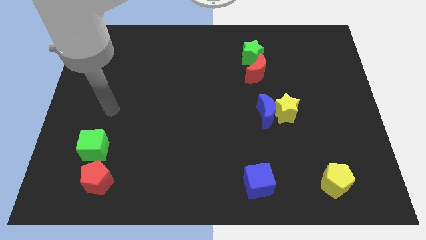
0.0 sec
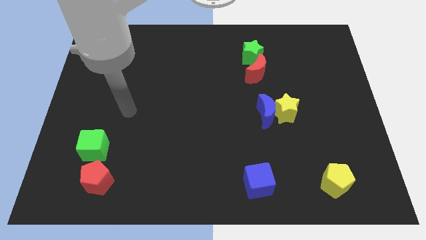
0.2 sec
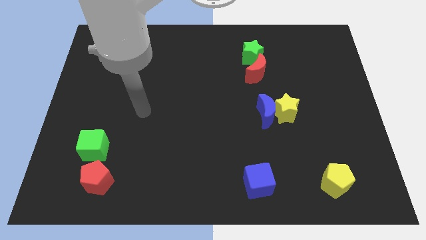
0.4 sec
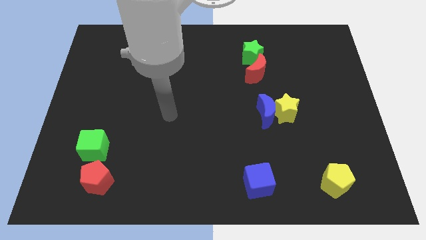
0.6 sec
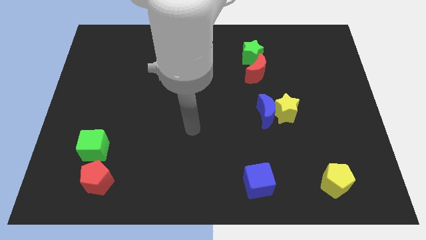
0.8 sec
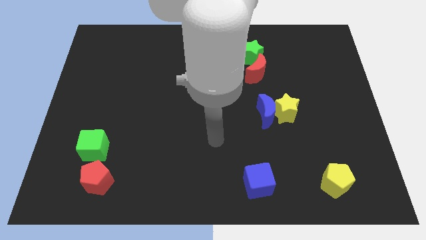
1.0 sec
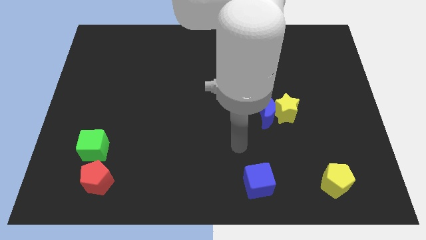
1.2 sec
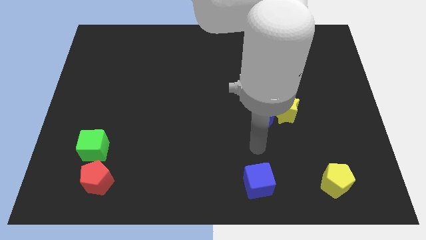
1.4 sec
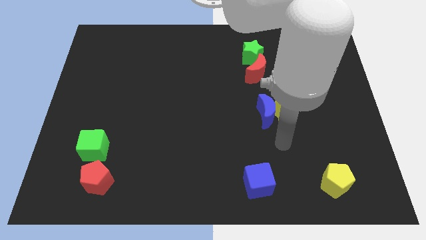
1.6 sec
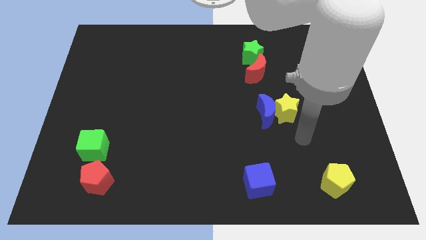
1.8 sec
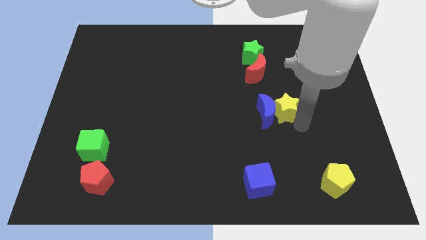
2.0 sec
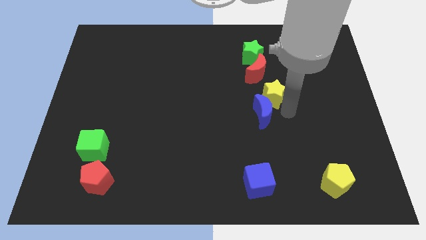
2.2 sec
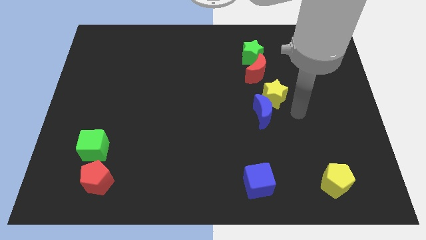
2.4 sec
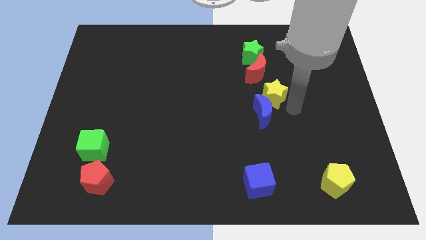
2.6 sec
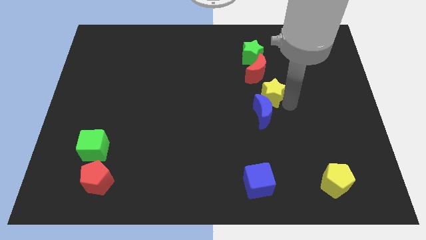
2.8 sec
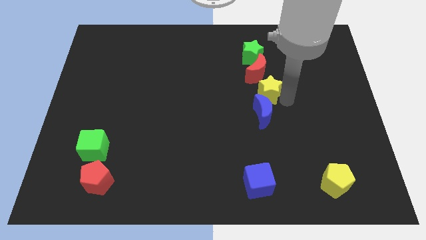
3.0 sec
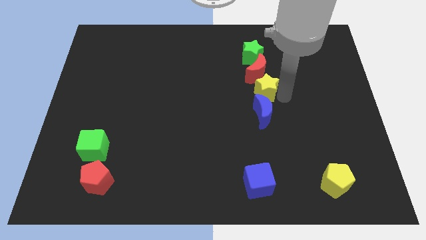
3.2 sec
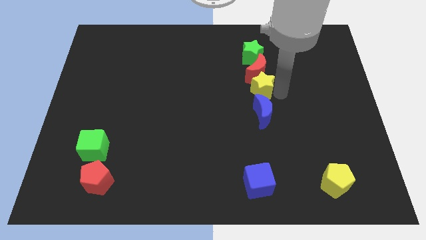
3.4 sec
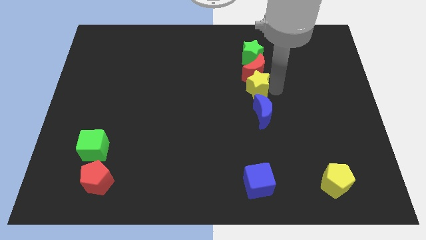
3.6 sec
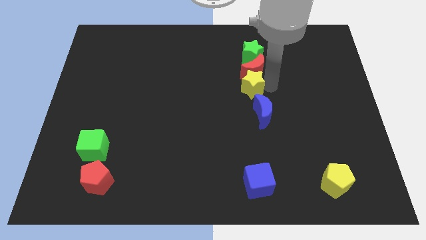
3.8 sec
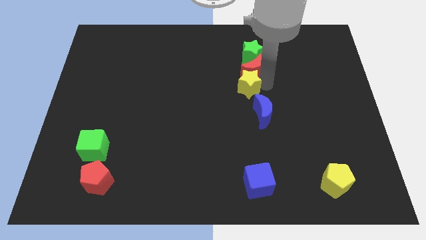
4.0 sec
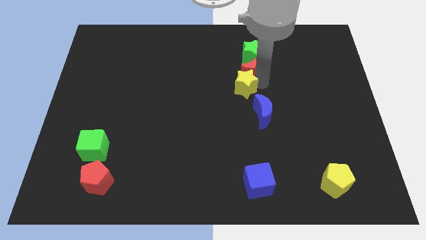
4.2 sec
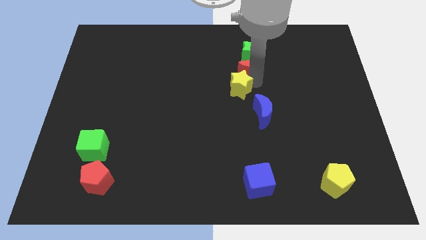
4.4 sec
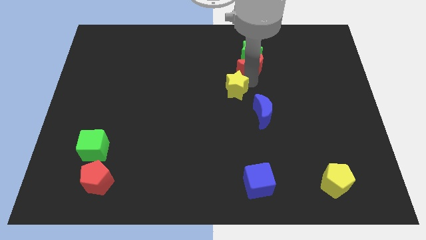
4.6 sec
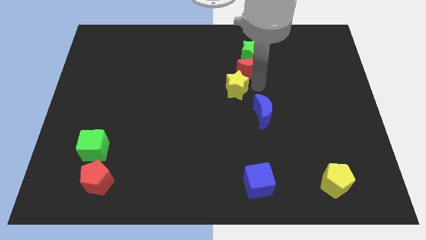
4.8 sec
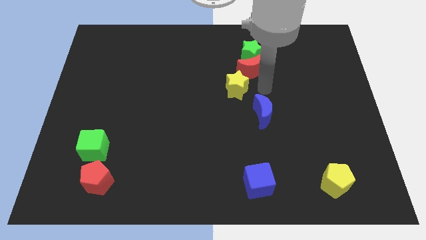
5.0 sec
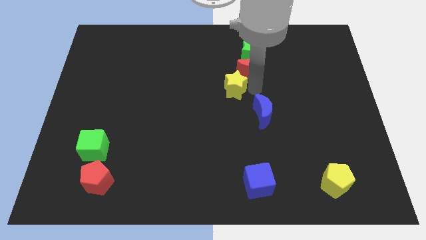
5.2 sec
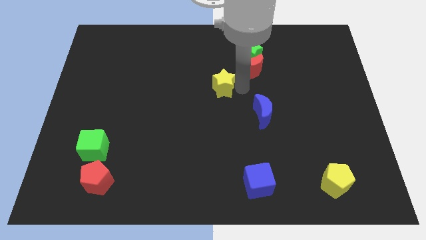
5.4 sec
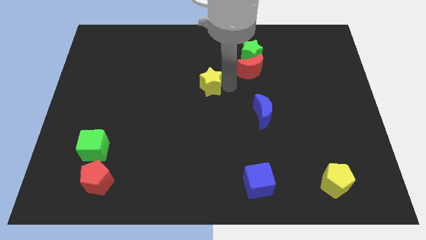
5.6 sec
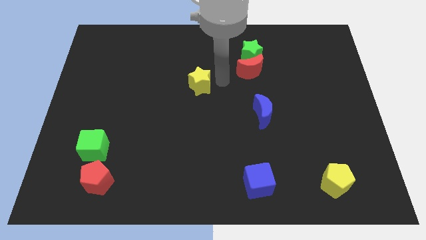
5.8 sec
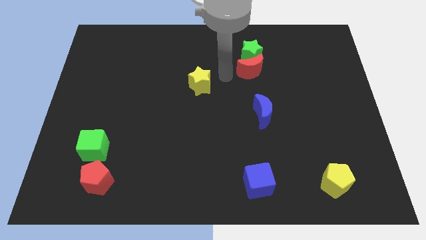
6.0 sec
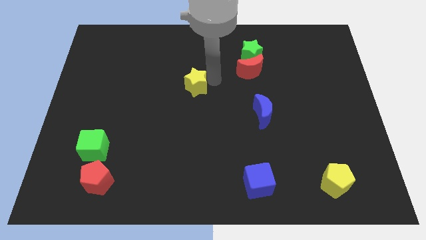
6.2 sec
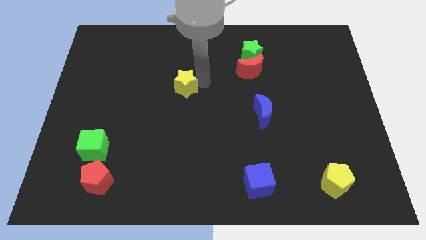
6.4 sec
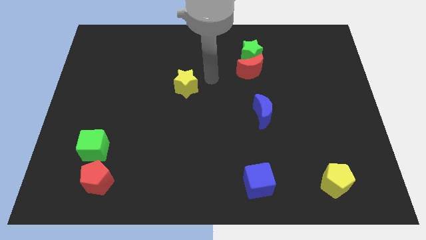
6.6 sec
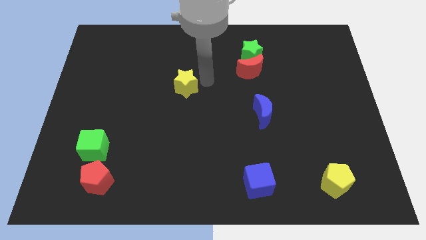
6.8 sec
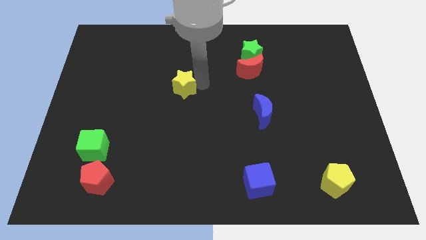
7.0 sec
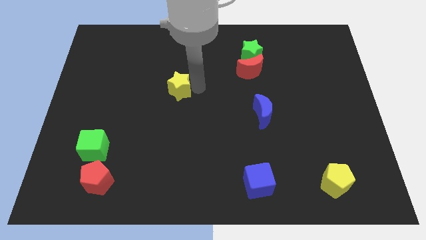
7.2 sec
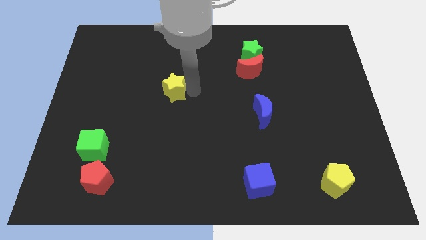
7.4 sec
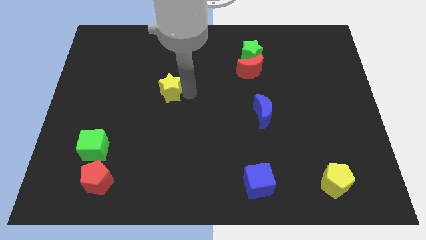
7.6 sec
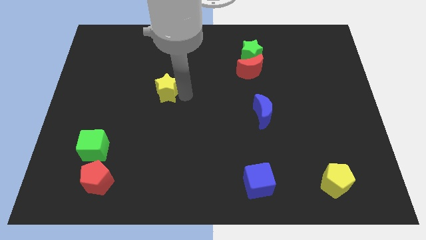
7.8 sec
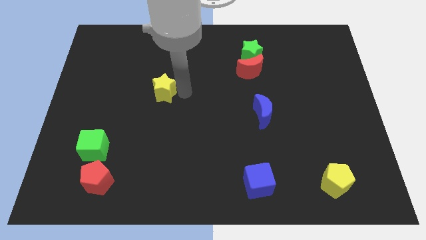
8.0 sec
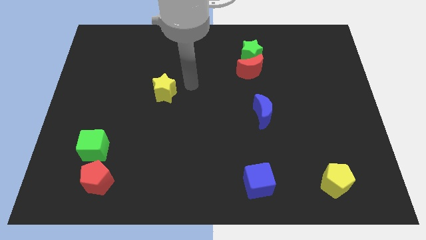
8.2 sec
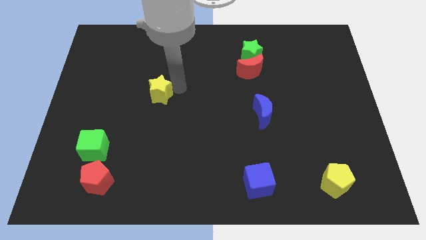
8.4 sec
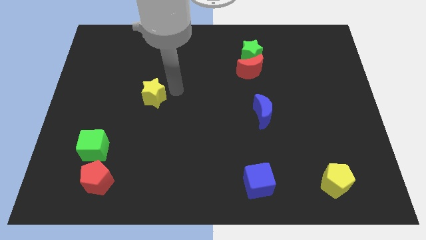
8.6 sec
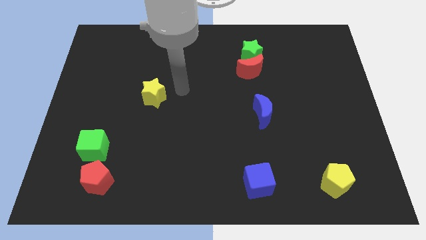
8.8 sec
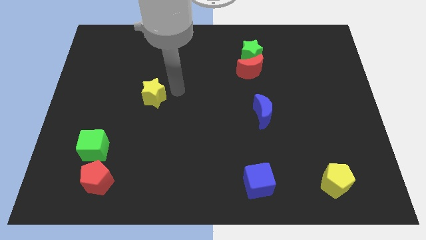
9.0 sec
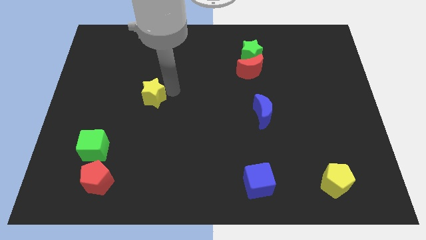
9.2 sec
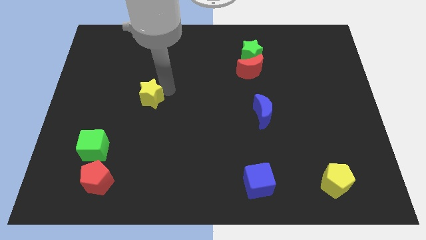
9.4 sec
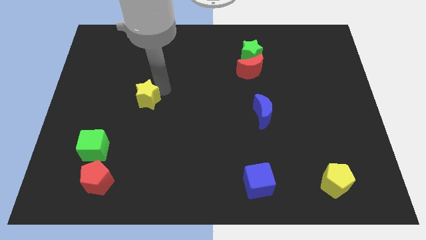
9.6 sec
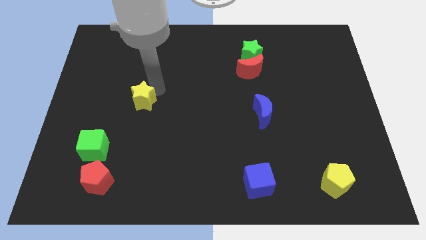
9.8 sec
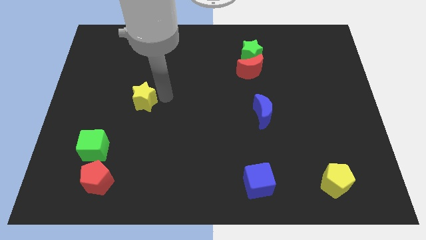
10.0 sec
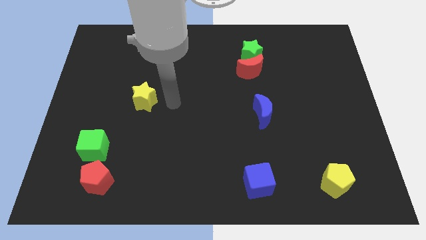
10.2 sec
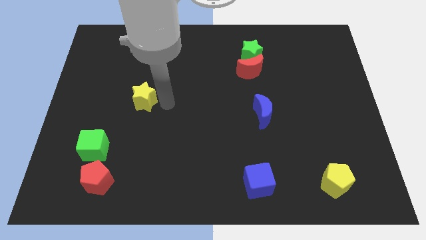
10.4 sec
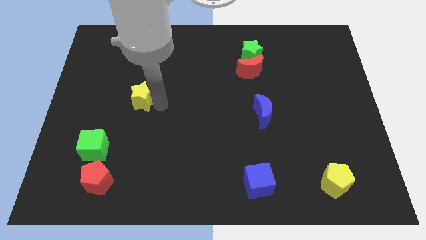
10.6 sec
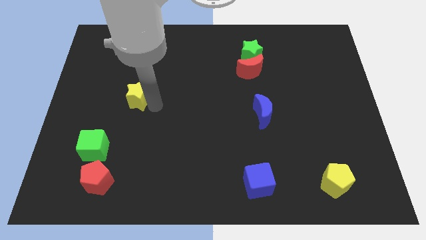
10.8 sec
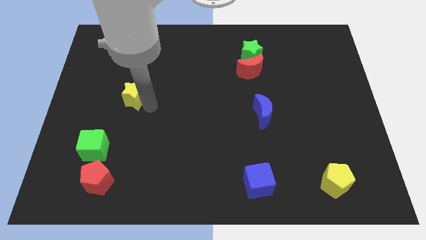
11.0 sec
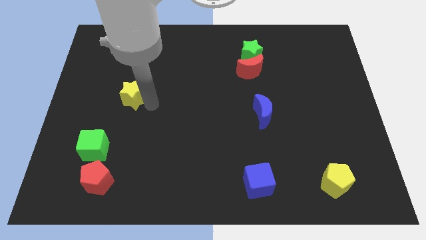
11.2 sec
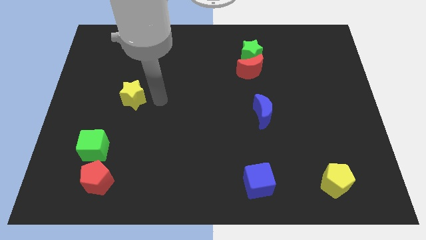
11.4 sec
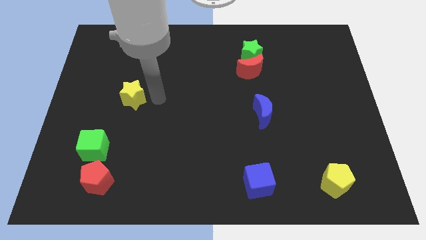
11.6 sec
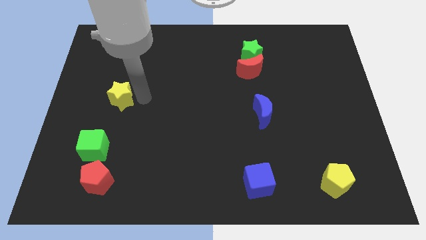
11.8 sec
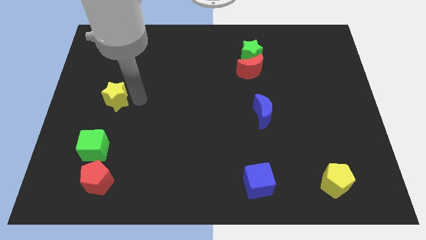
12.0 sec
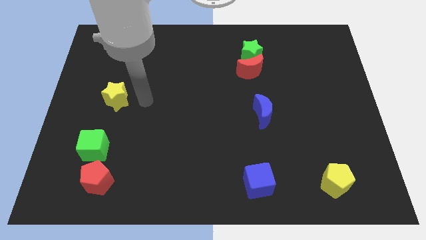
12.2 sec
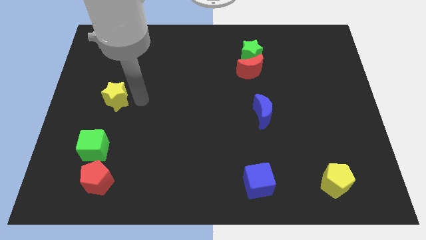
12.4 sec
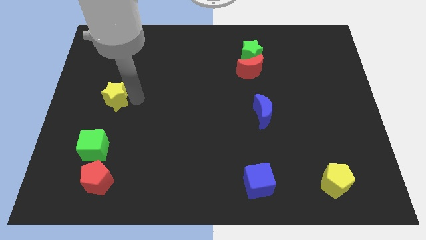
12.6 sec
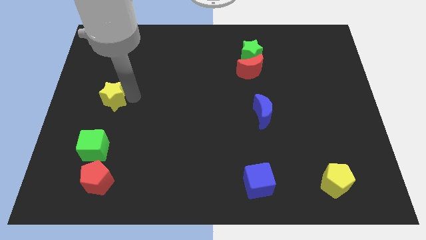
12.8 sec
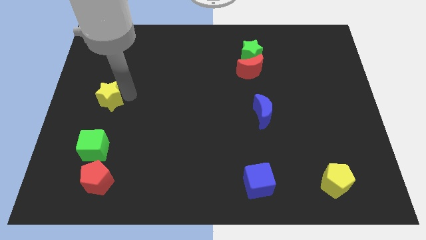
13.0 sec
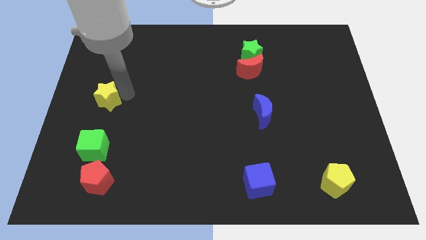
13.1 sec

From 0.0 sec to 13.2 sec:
move the yellow star to the left side of the board
